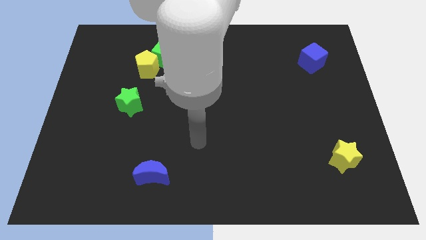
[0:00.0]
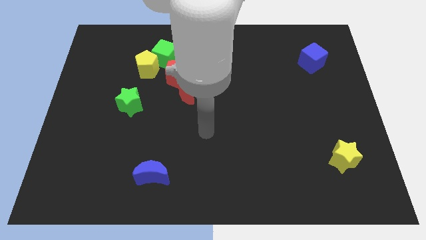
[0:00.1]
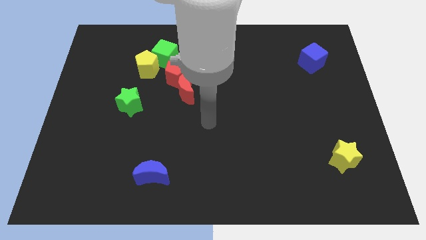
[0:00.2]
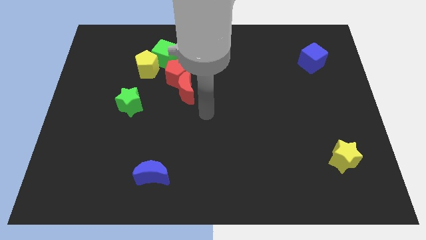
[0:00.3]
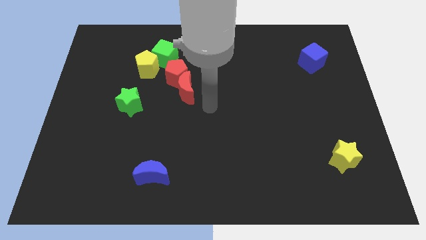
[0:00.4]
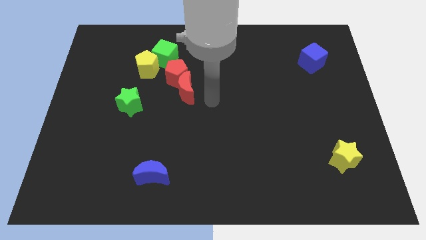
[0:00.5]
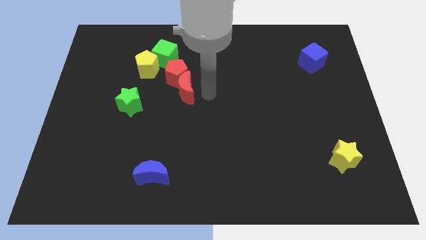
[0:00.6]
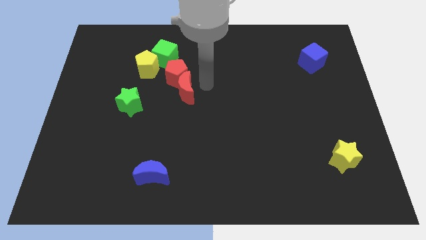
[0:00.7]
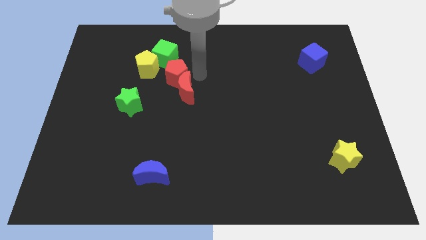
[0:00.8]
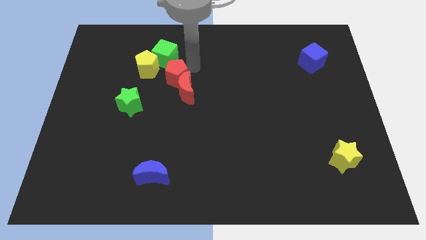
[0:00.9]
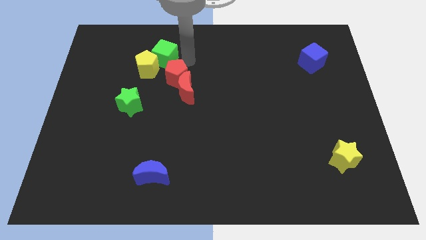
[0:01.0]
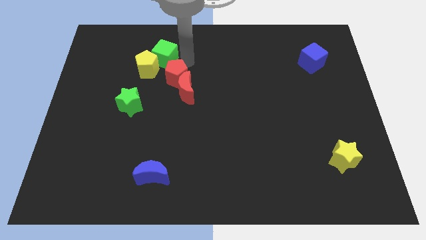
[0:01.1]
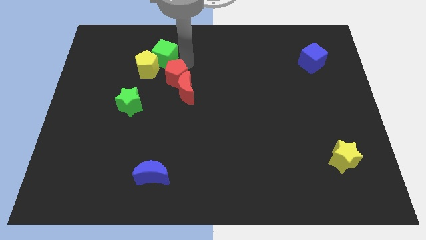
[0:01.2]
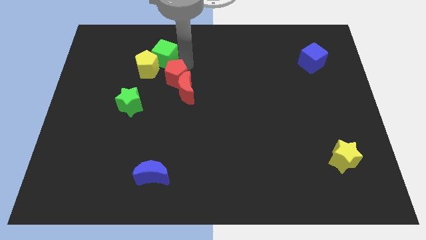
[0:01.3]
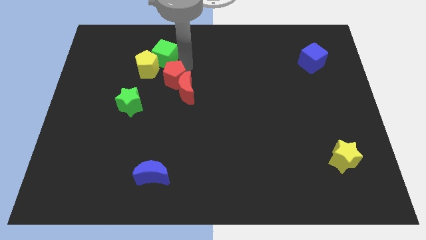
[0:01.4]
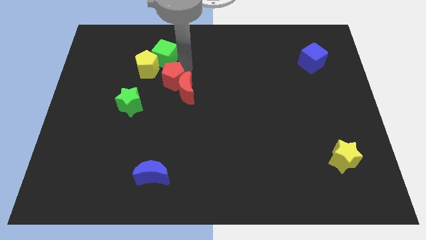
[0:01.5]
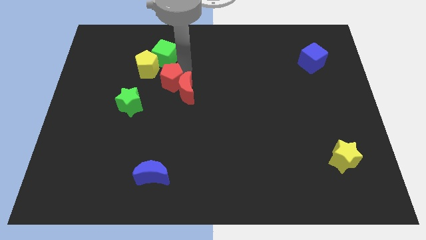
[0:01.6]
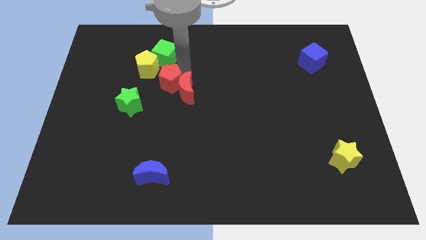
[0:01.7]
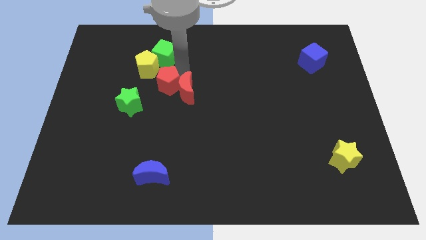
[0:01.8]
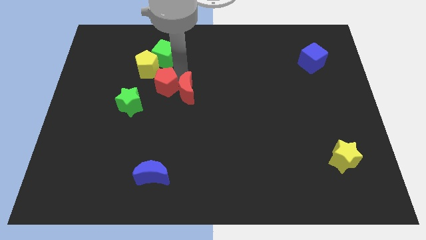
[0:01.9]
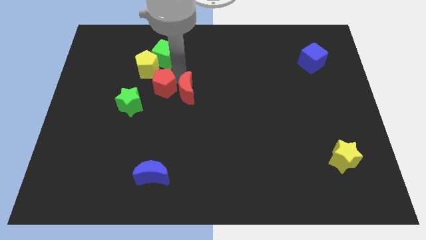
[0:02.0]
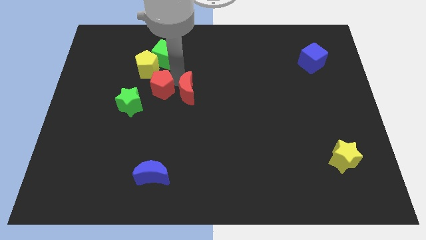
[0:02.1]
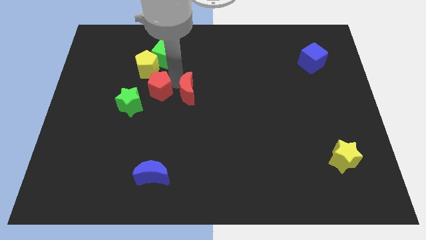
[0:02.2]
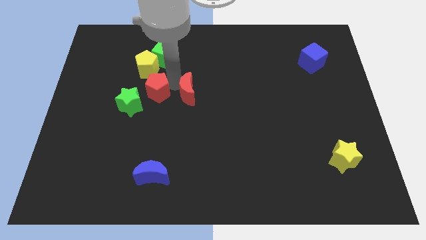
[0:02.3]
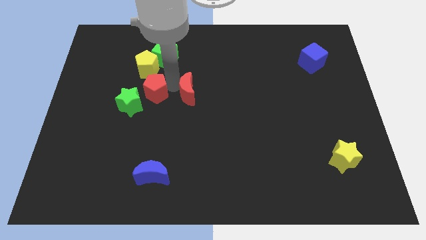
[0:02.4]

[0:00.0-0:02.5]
slightly slide the red pentagon down and left diagonally

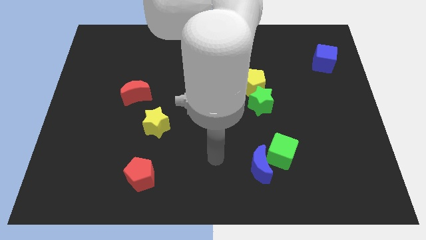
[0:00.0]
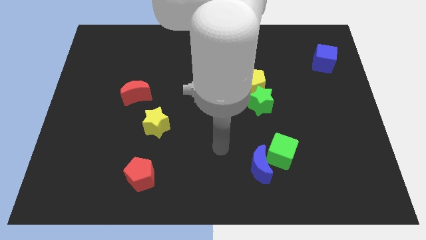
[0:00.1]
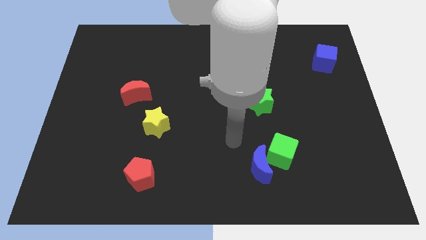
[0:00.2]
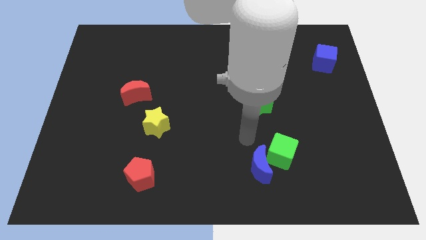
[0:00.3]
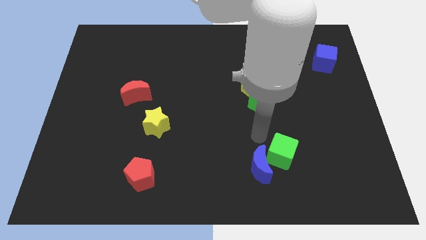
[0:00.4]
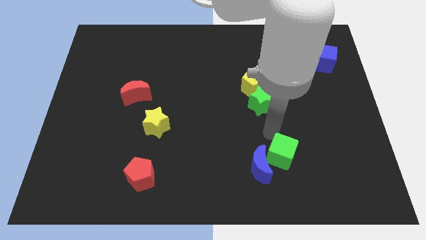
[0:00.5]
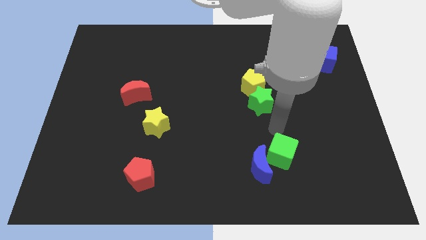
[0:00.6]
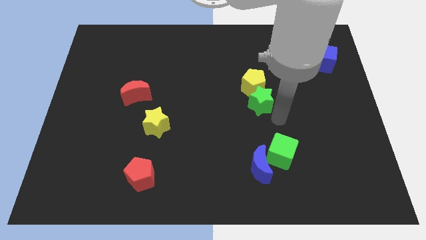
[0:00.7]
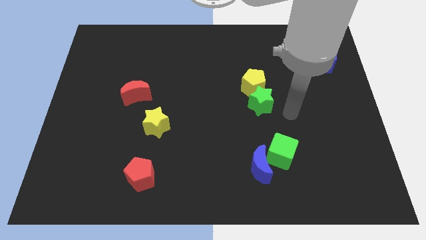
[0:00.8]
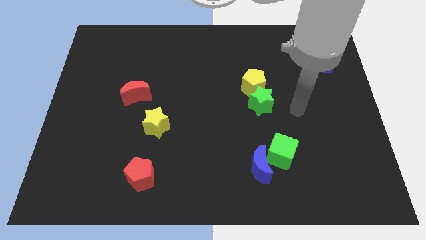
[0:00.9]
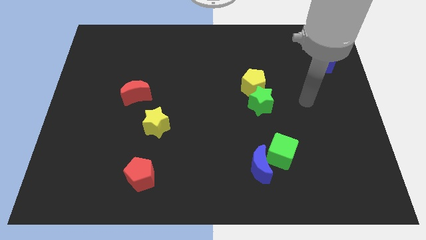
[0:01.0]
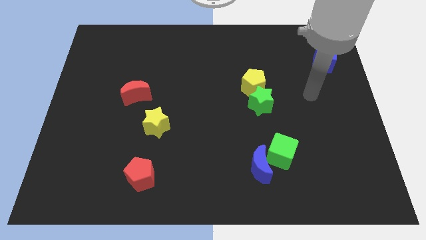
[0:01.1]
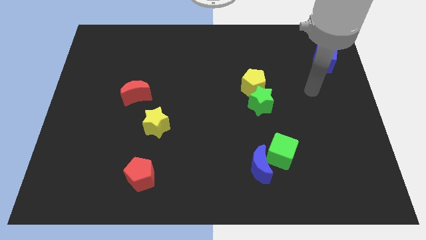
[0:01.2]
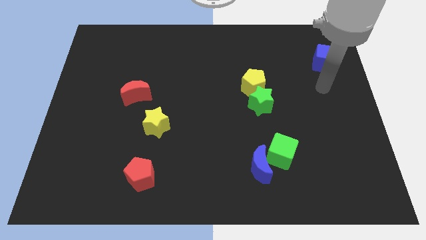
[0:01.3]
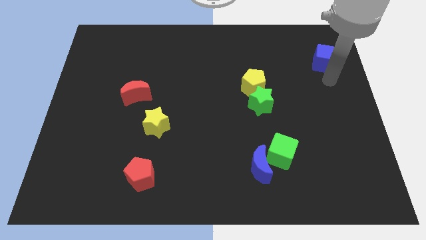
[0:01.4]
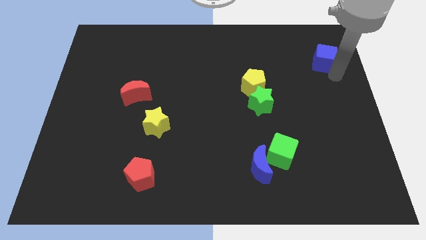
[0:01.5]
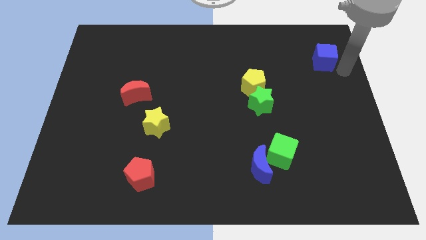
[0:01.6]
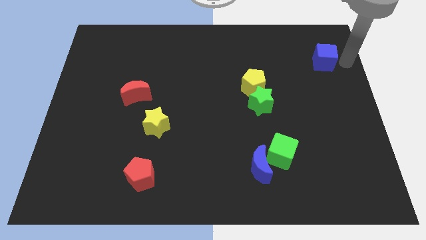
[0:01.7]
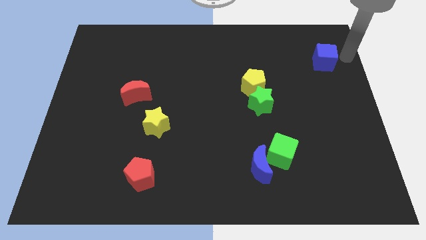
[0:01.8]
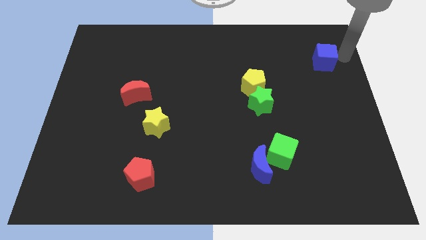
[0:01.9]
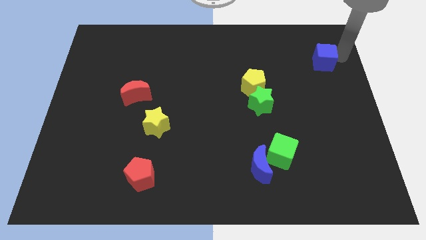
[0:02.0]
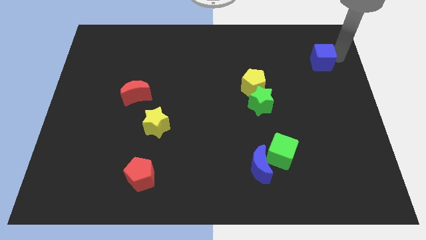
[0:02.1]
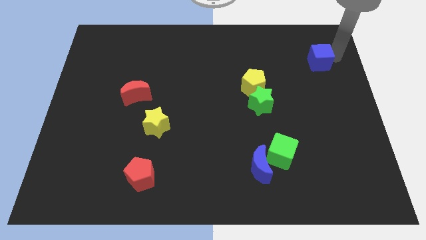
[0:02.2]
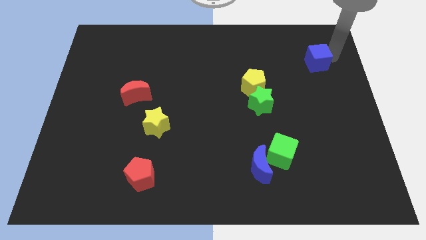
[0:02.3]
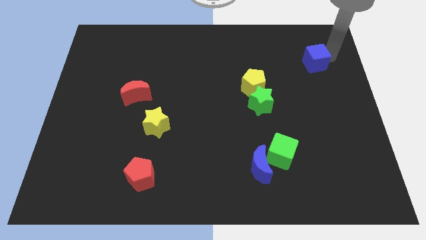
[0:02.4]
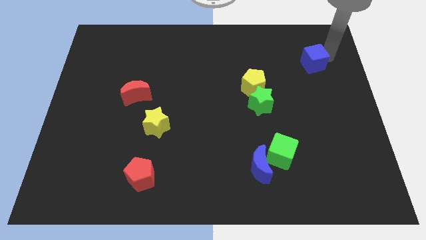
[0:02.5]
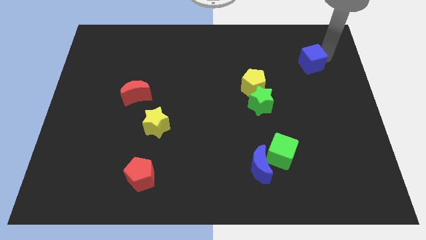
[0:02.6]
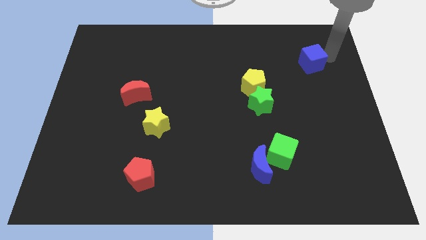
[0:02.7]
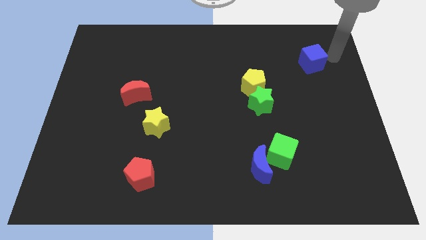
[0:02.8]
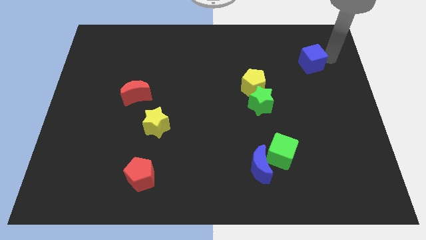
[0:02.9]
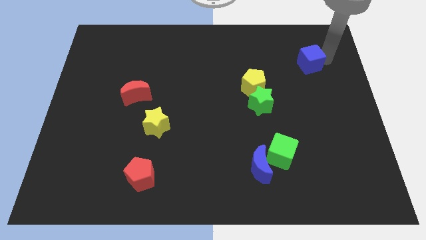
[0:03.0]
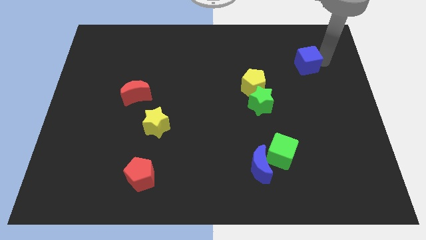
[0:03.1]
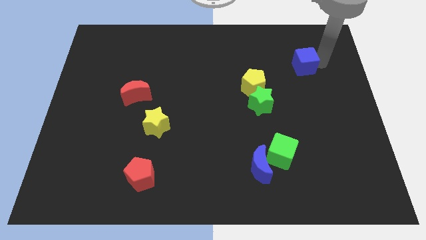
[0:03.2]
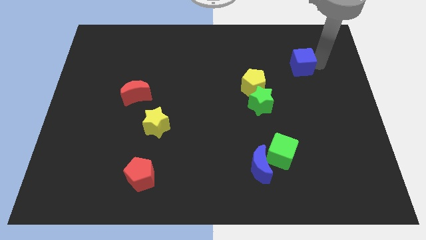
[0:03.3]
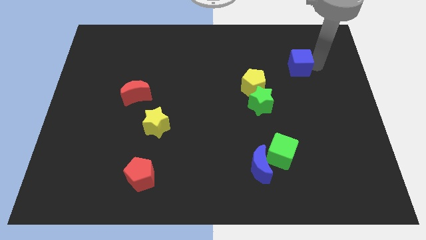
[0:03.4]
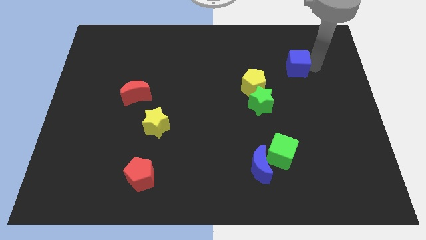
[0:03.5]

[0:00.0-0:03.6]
slightly move the blue cube to the left

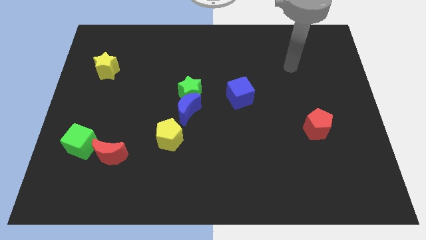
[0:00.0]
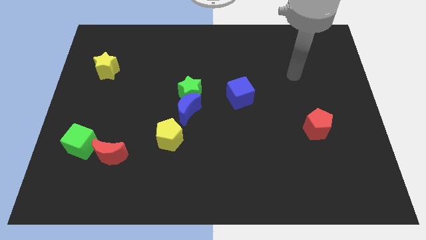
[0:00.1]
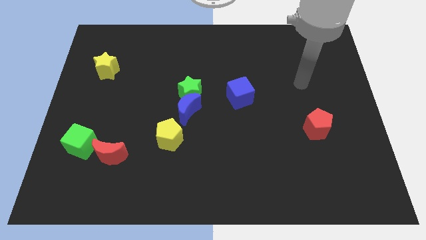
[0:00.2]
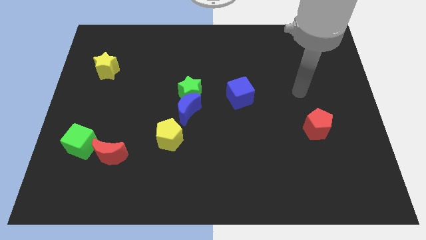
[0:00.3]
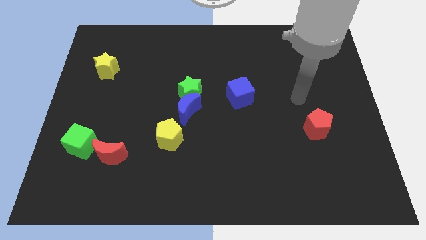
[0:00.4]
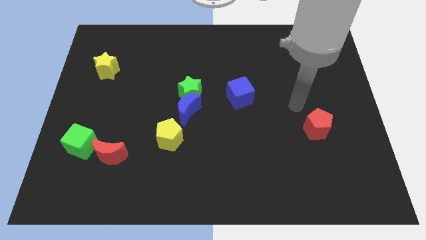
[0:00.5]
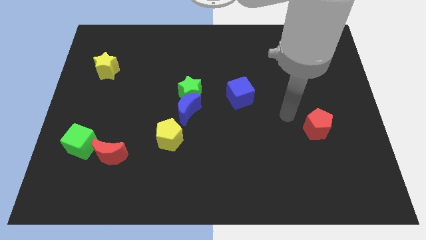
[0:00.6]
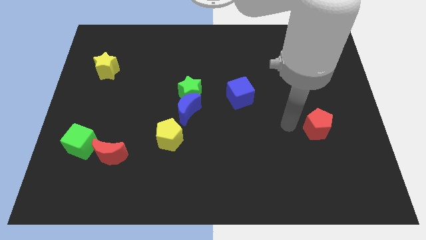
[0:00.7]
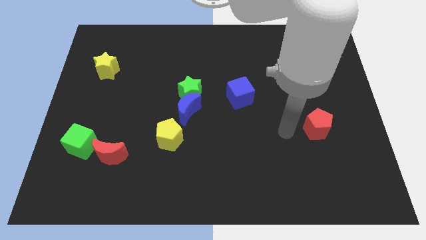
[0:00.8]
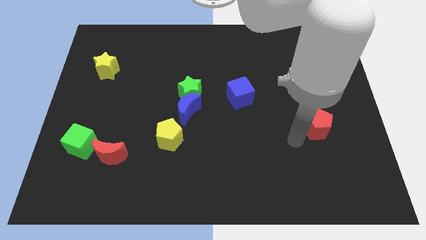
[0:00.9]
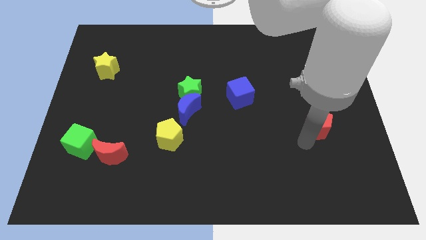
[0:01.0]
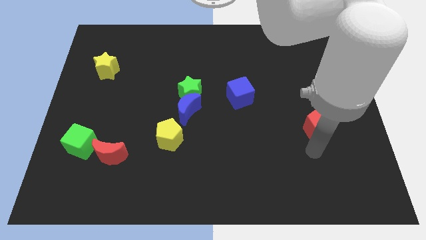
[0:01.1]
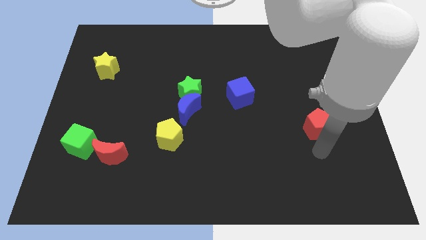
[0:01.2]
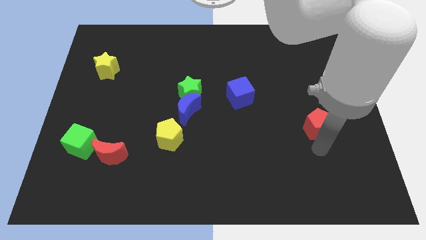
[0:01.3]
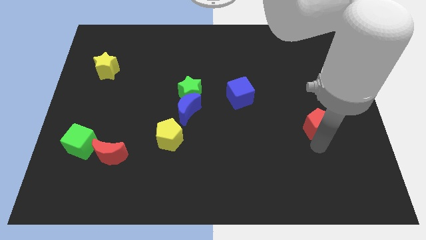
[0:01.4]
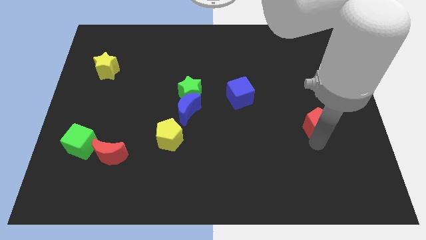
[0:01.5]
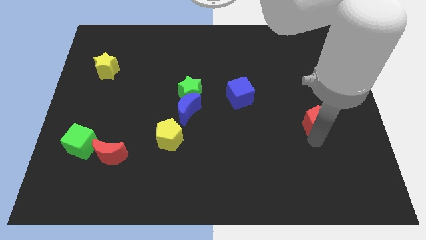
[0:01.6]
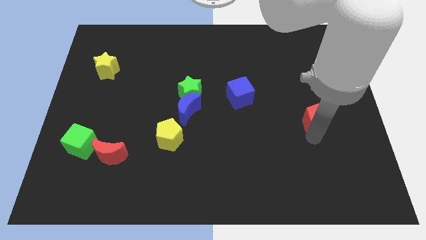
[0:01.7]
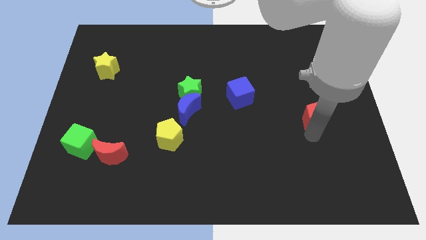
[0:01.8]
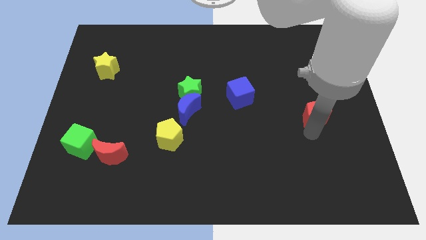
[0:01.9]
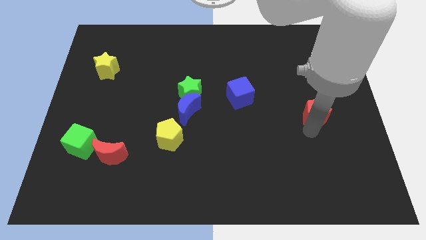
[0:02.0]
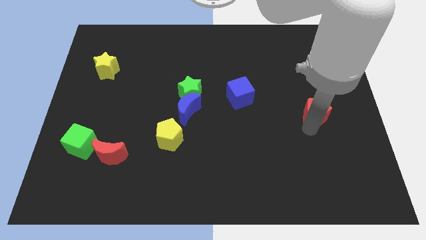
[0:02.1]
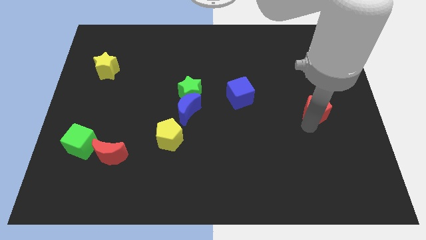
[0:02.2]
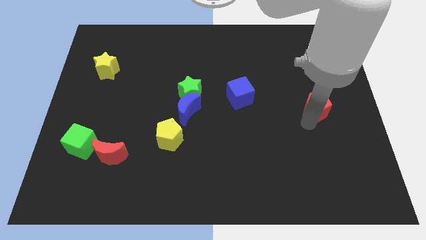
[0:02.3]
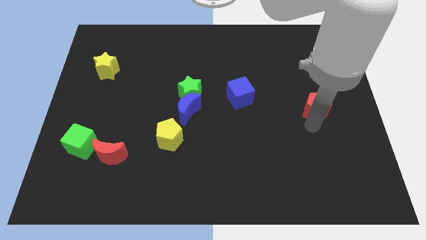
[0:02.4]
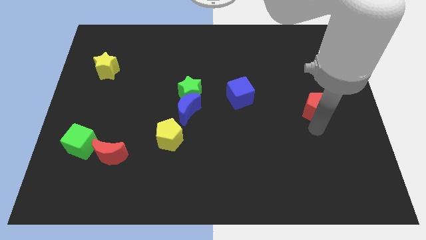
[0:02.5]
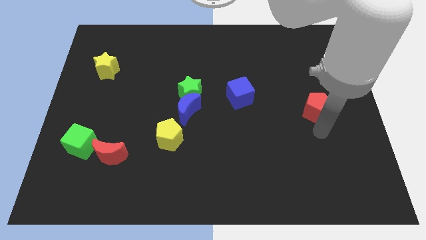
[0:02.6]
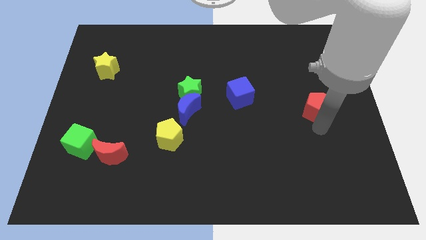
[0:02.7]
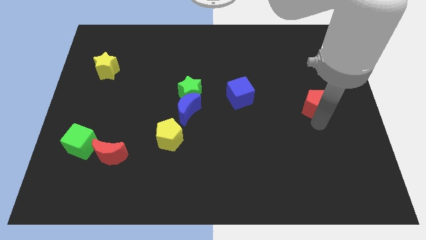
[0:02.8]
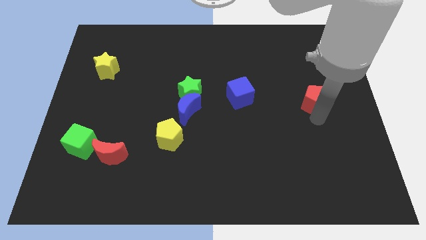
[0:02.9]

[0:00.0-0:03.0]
move the red pentagon up a little bit
